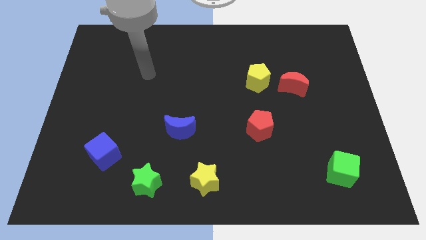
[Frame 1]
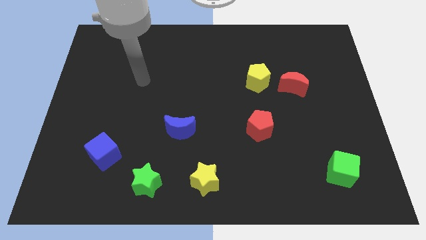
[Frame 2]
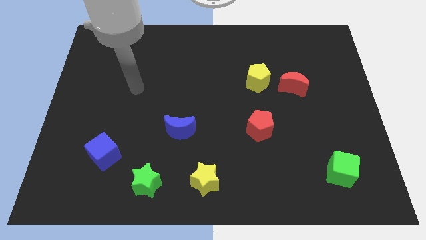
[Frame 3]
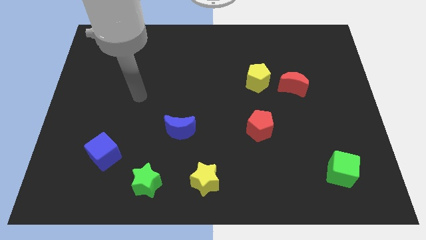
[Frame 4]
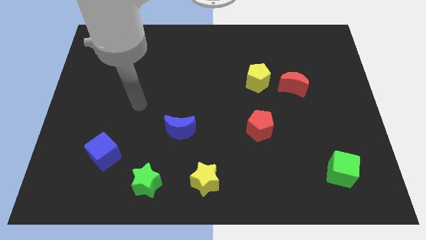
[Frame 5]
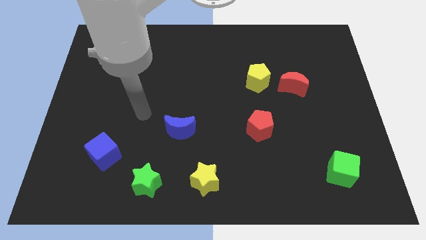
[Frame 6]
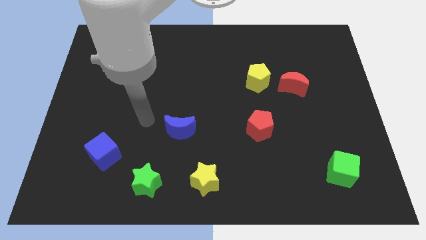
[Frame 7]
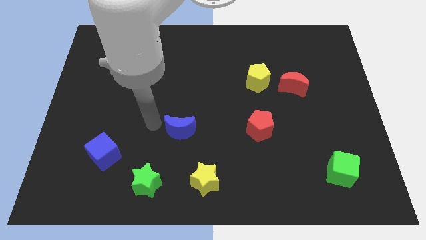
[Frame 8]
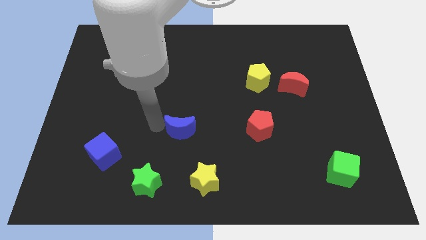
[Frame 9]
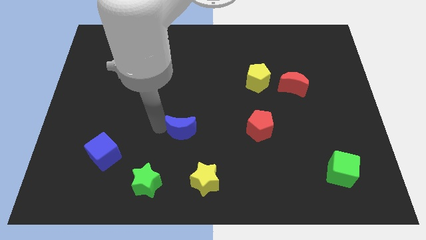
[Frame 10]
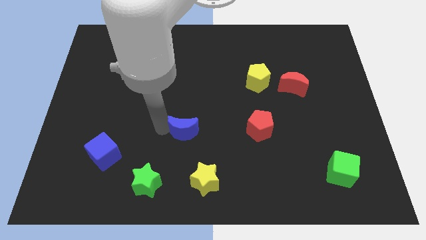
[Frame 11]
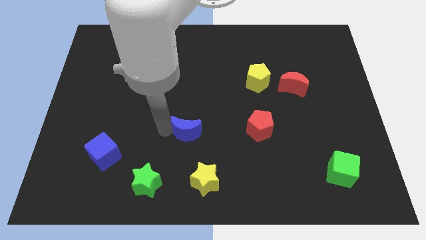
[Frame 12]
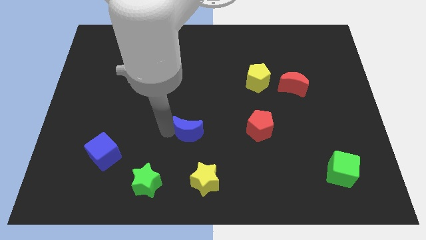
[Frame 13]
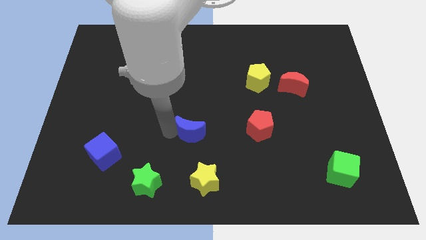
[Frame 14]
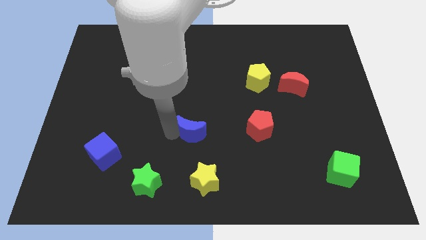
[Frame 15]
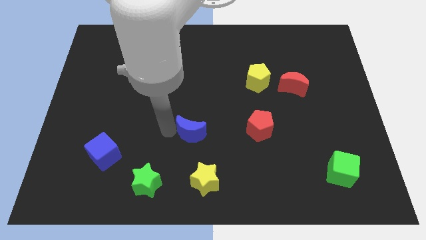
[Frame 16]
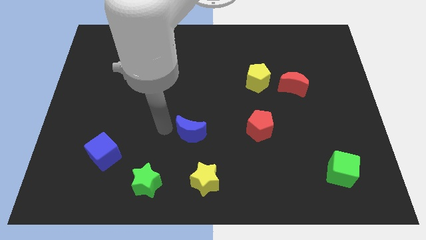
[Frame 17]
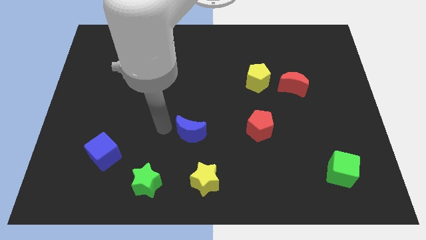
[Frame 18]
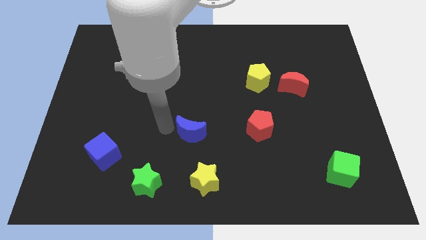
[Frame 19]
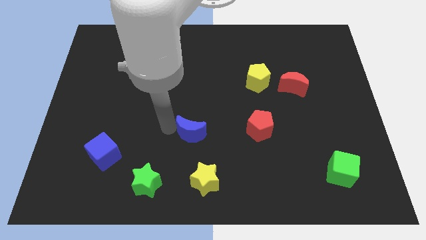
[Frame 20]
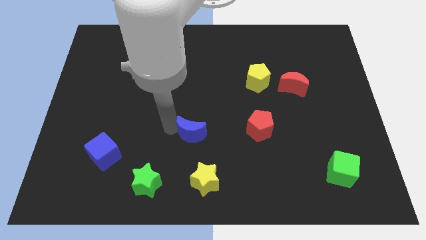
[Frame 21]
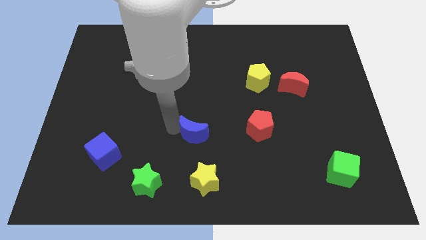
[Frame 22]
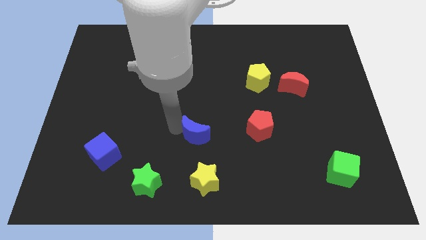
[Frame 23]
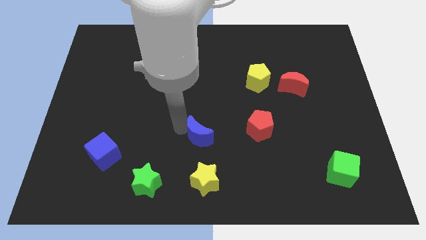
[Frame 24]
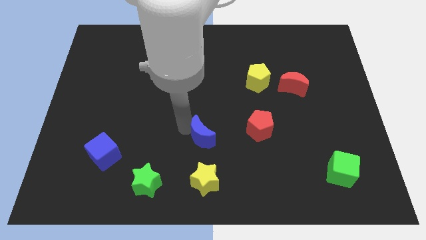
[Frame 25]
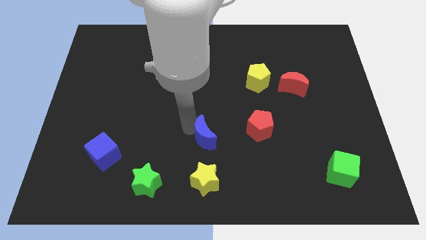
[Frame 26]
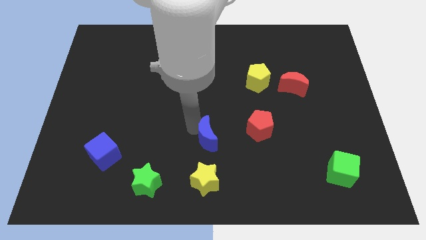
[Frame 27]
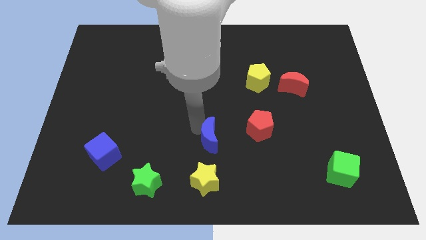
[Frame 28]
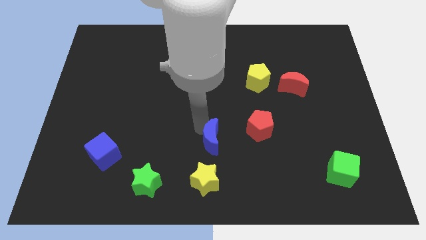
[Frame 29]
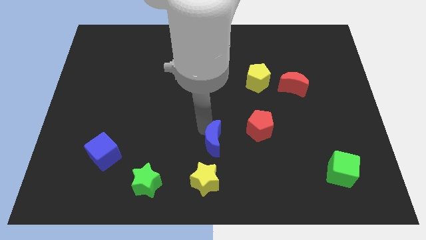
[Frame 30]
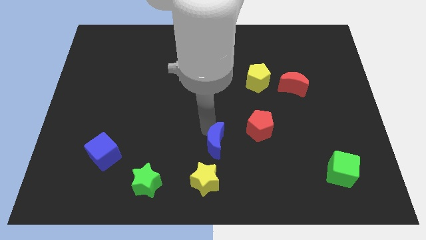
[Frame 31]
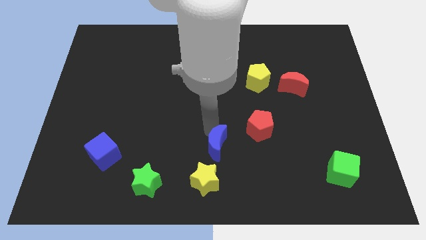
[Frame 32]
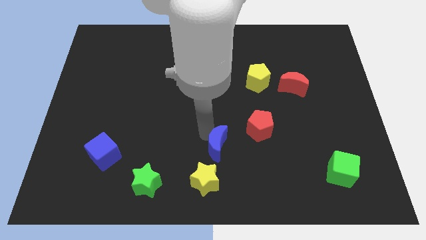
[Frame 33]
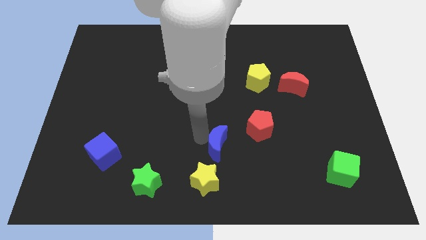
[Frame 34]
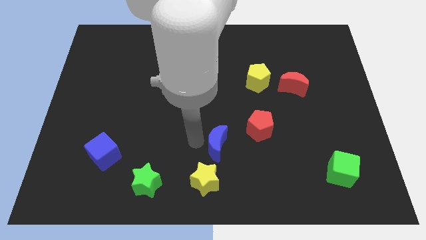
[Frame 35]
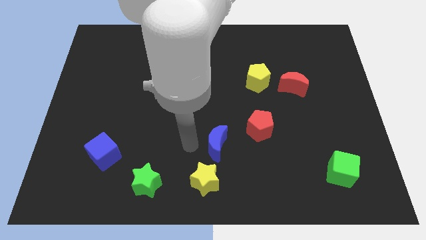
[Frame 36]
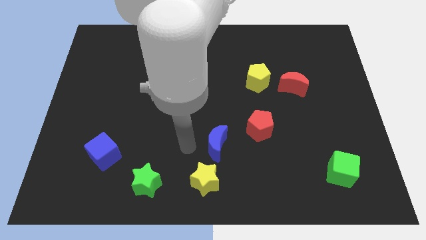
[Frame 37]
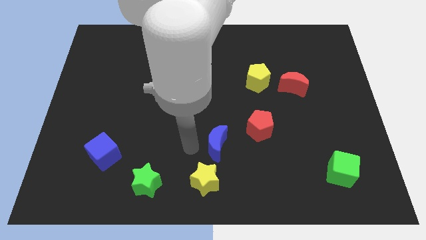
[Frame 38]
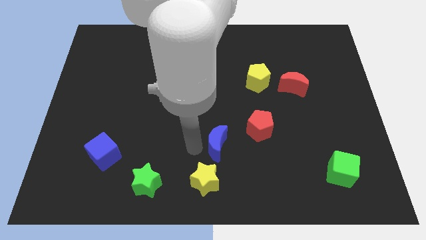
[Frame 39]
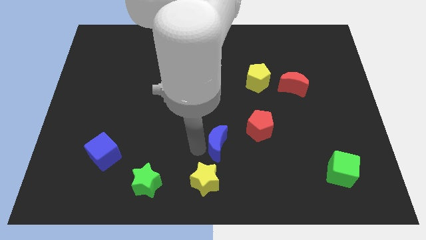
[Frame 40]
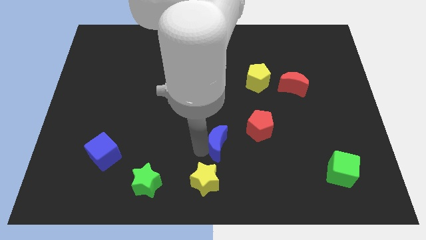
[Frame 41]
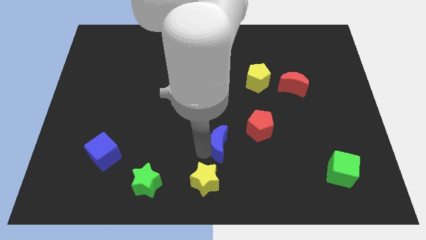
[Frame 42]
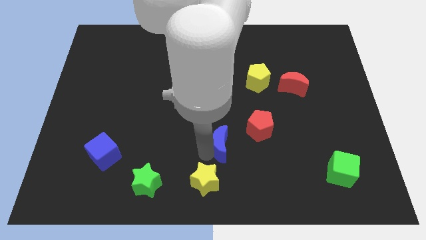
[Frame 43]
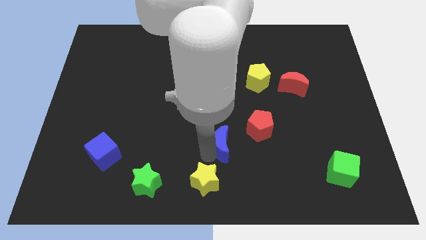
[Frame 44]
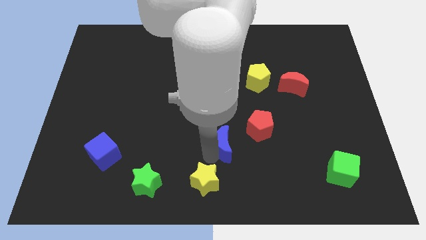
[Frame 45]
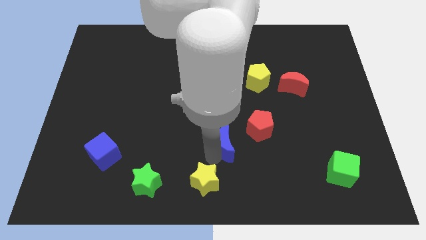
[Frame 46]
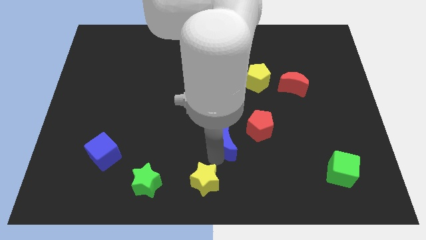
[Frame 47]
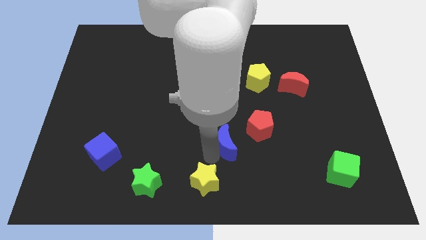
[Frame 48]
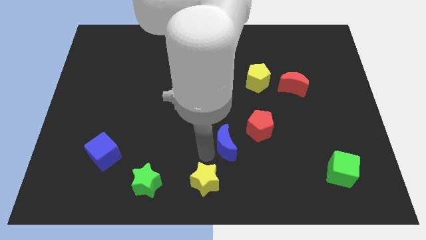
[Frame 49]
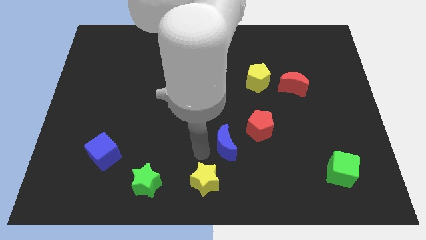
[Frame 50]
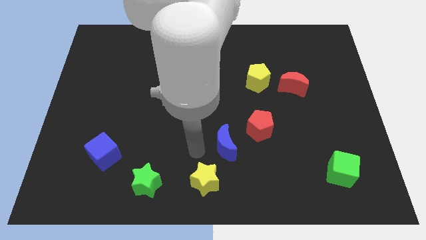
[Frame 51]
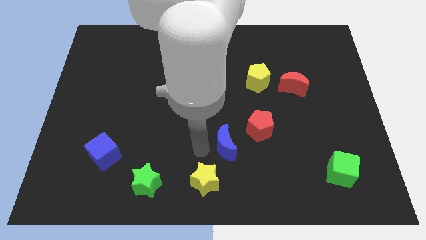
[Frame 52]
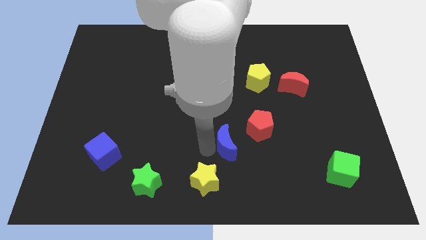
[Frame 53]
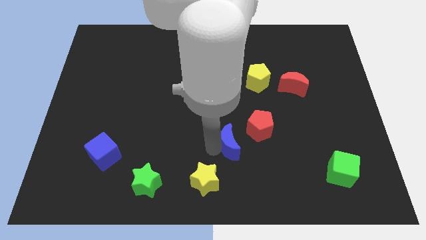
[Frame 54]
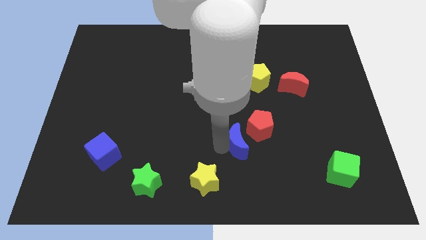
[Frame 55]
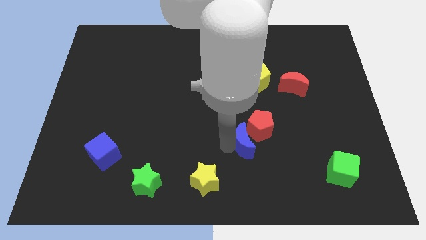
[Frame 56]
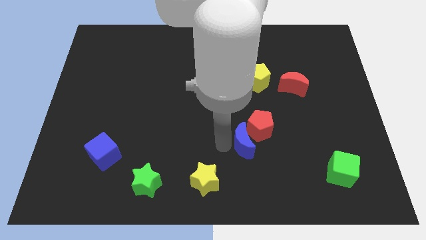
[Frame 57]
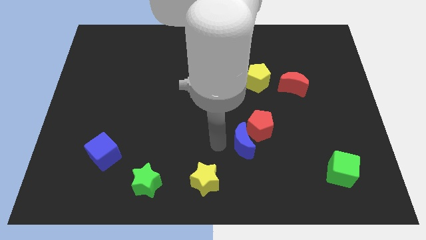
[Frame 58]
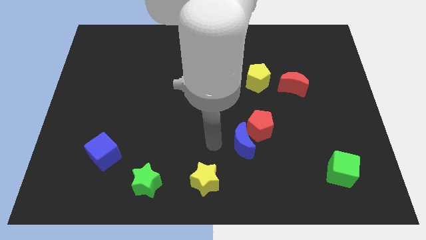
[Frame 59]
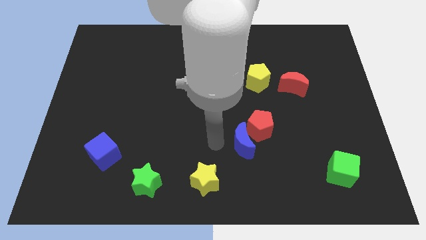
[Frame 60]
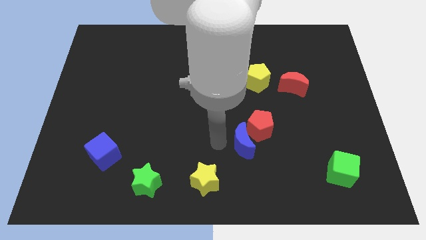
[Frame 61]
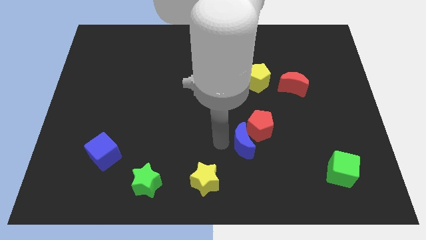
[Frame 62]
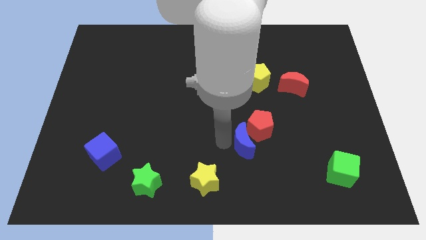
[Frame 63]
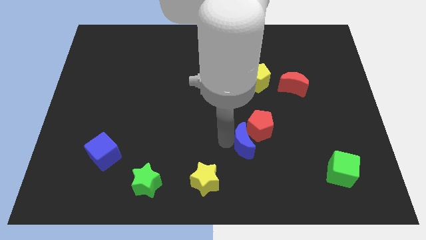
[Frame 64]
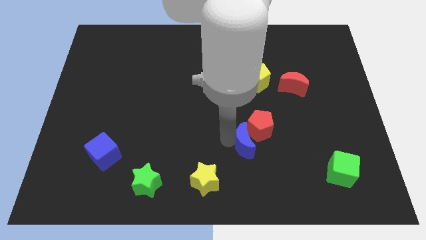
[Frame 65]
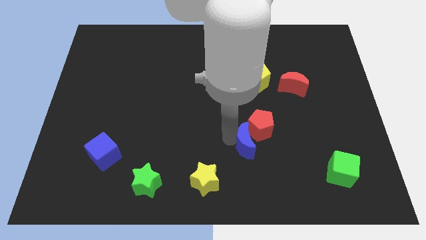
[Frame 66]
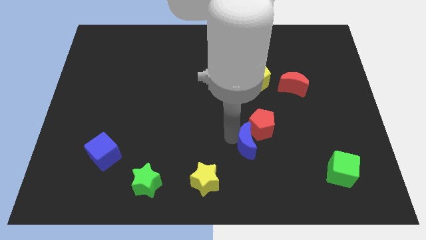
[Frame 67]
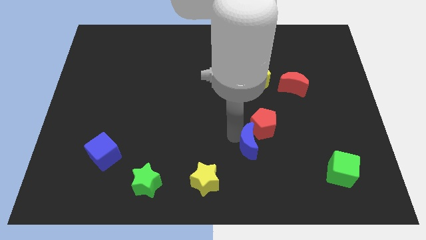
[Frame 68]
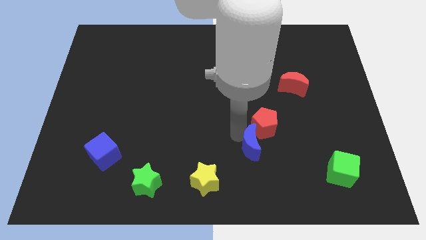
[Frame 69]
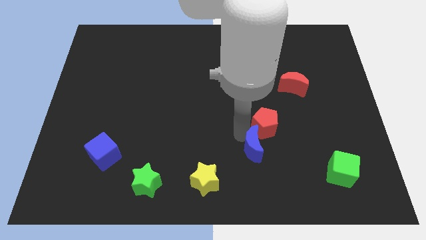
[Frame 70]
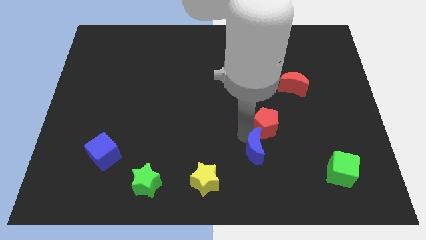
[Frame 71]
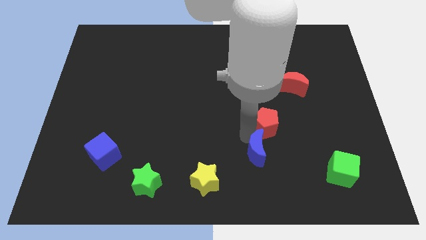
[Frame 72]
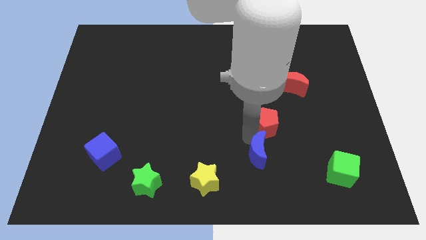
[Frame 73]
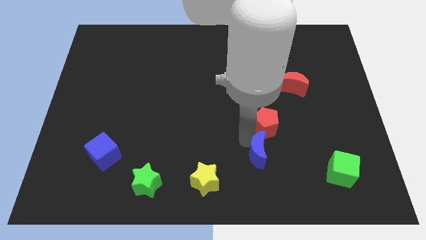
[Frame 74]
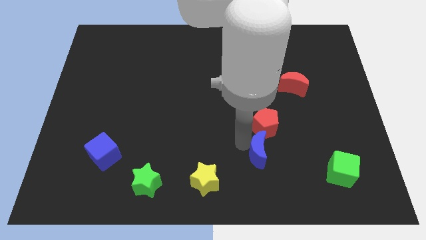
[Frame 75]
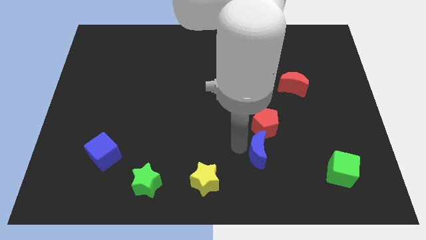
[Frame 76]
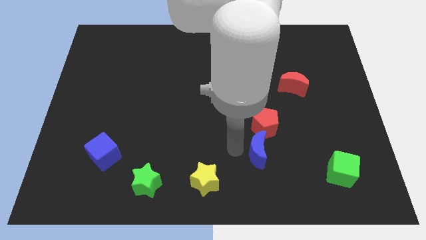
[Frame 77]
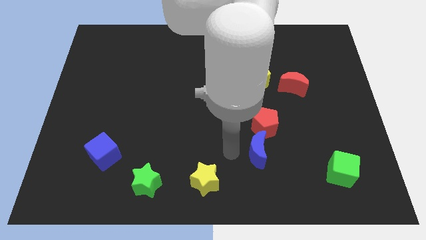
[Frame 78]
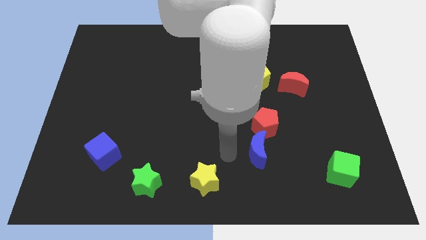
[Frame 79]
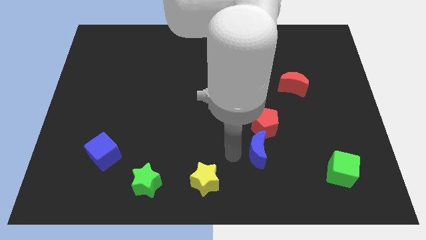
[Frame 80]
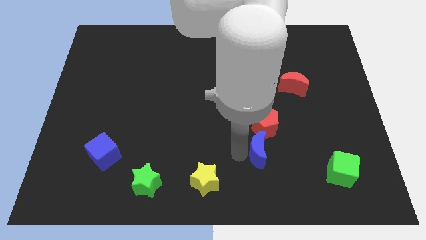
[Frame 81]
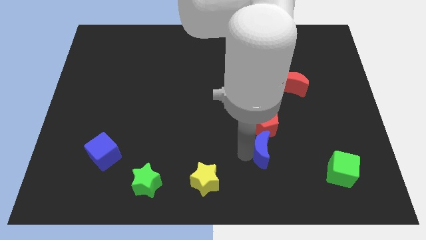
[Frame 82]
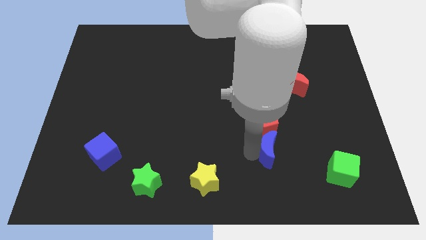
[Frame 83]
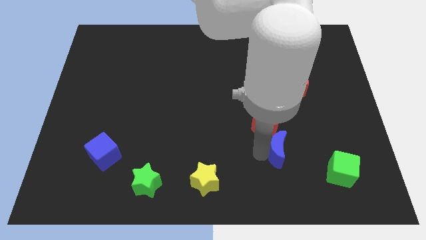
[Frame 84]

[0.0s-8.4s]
slide the blue moon right
